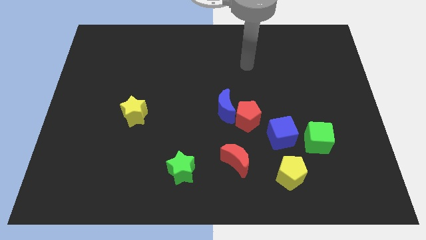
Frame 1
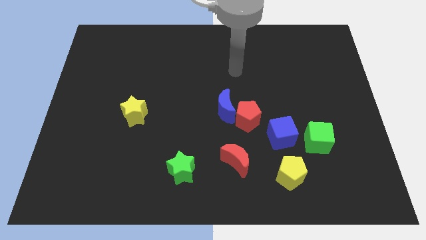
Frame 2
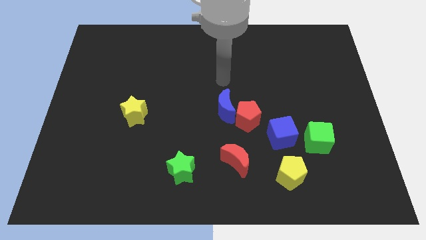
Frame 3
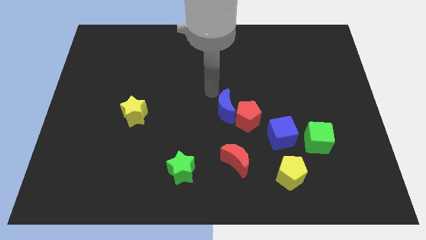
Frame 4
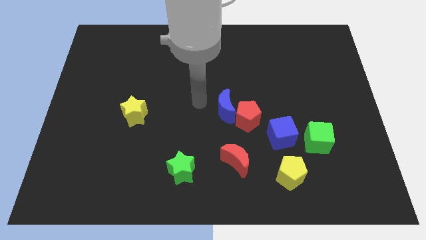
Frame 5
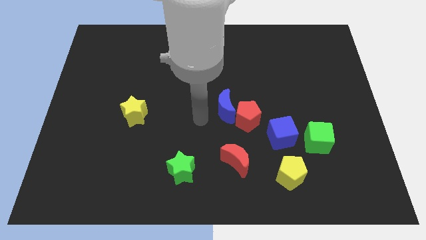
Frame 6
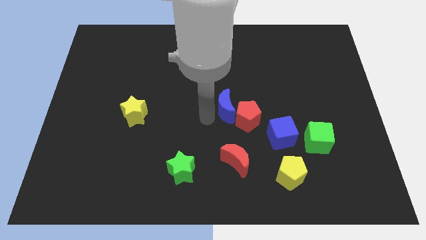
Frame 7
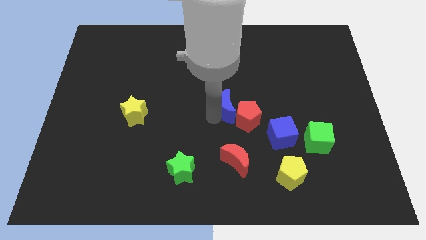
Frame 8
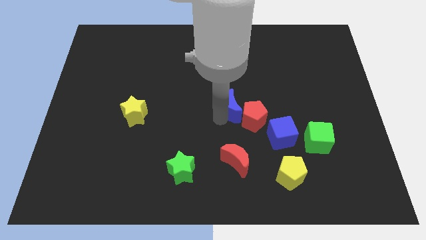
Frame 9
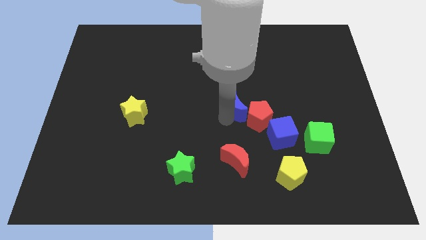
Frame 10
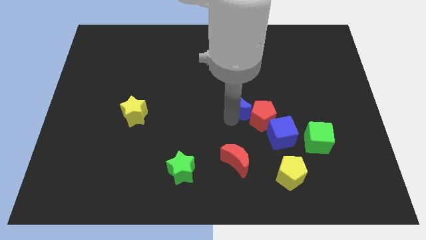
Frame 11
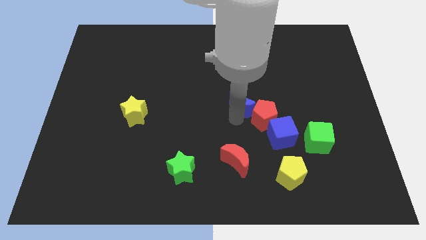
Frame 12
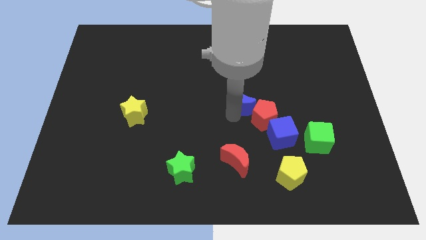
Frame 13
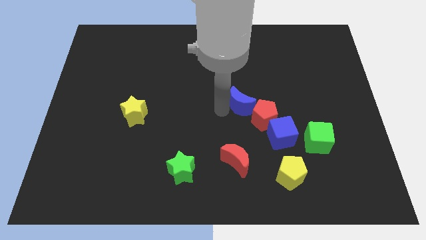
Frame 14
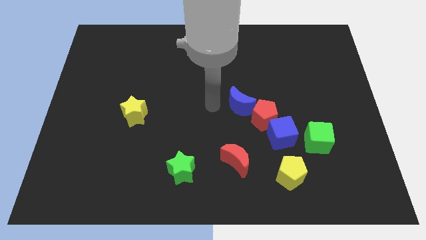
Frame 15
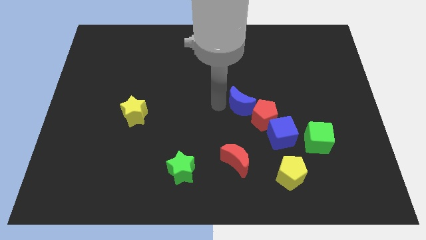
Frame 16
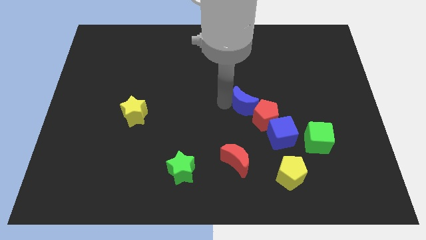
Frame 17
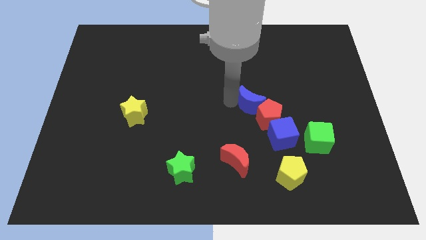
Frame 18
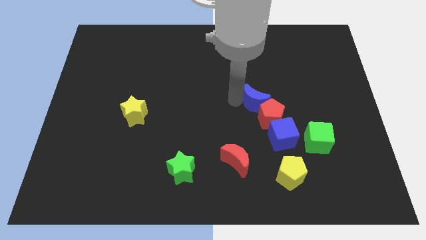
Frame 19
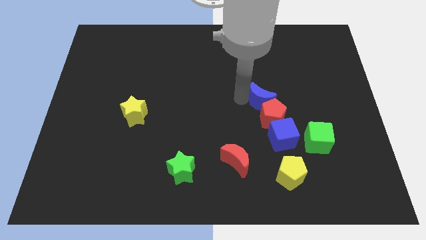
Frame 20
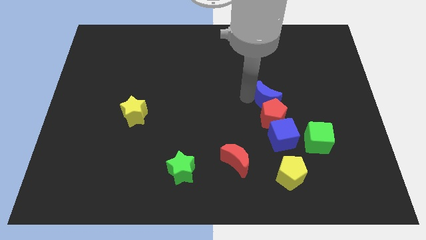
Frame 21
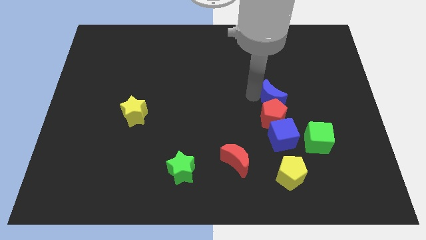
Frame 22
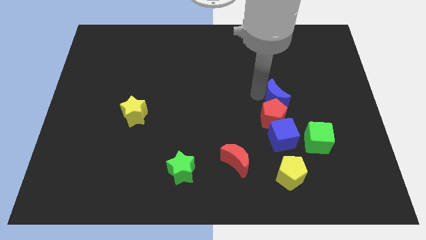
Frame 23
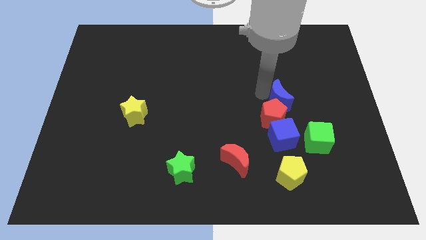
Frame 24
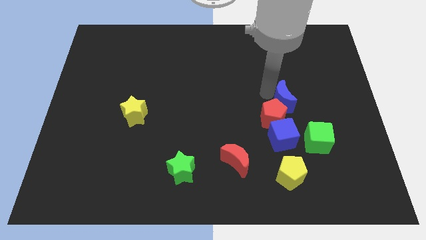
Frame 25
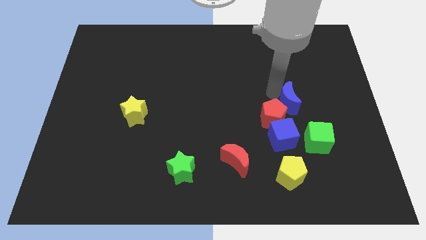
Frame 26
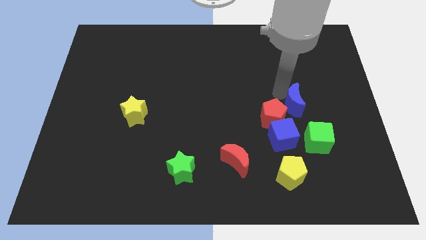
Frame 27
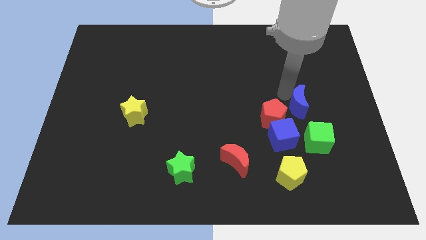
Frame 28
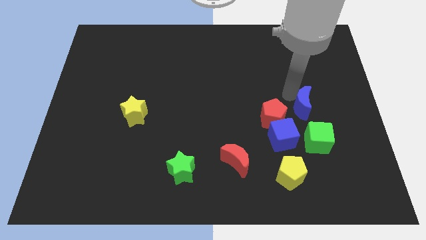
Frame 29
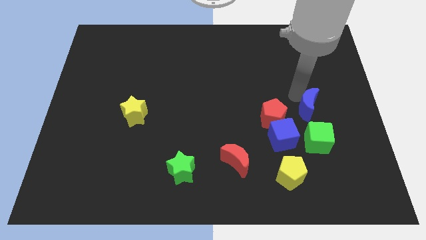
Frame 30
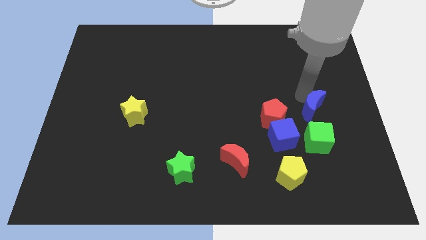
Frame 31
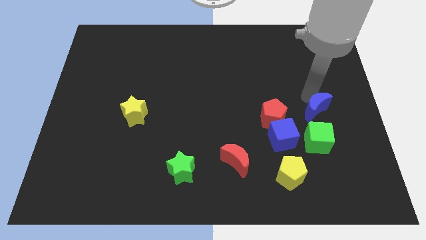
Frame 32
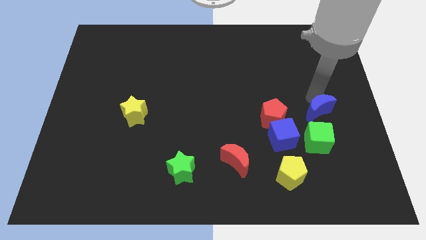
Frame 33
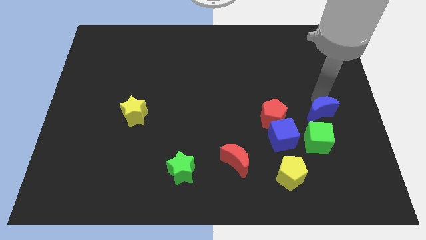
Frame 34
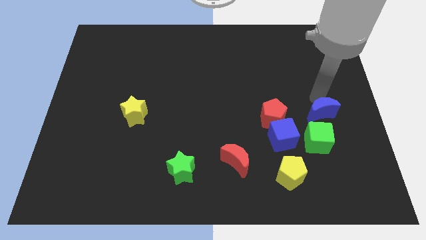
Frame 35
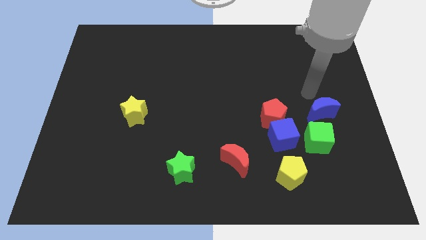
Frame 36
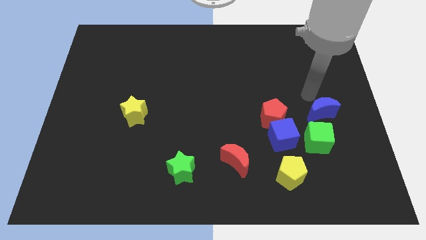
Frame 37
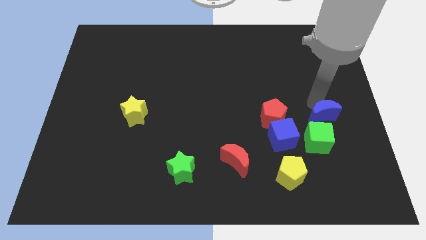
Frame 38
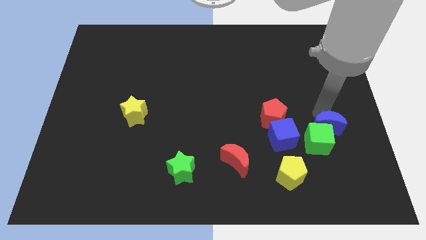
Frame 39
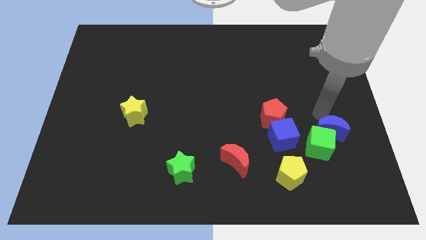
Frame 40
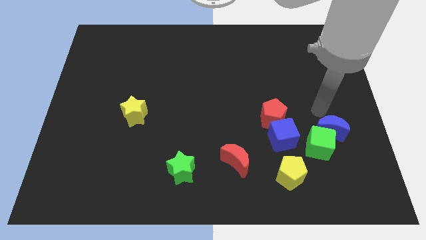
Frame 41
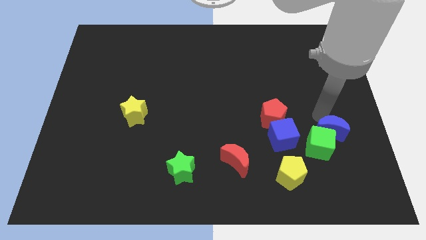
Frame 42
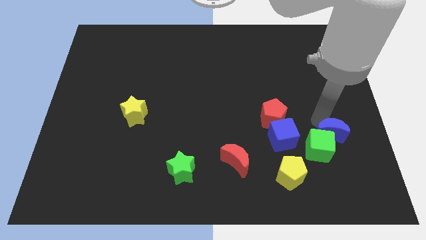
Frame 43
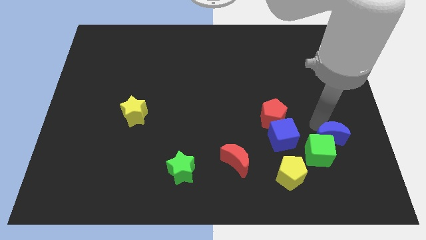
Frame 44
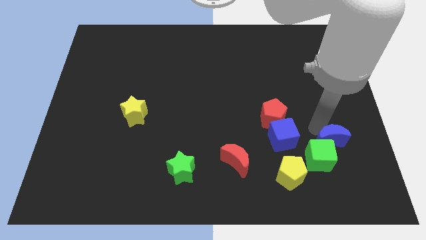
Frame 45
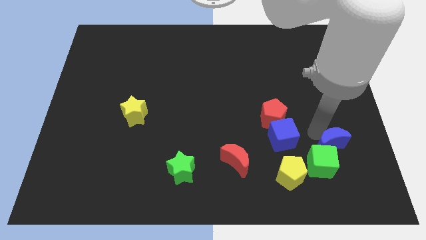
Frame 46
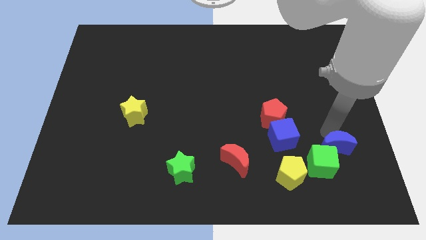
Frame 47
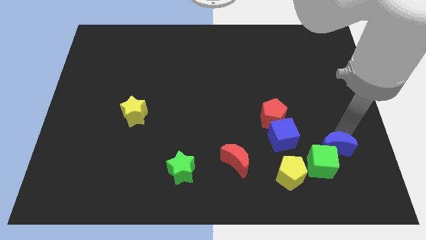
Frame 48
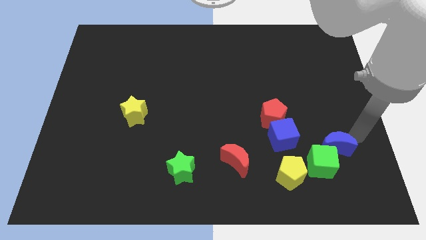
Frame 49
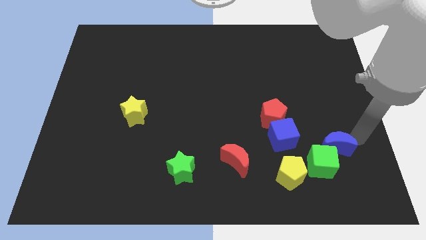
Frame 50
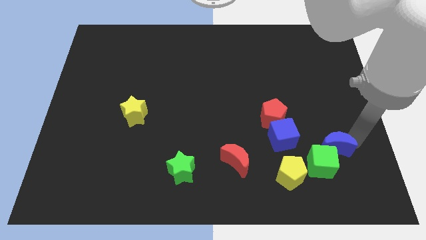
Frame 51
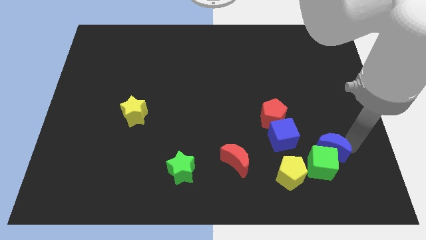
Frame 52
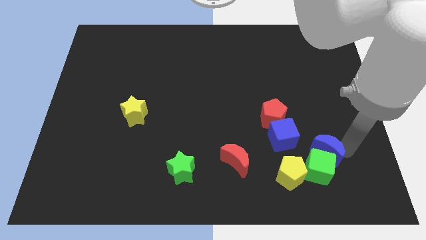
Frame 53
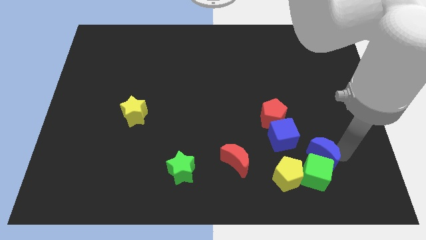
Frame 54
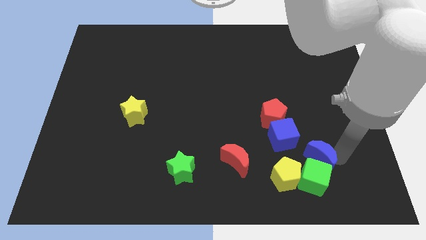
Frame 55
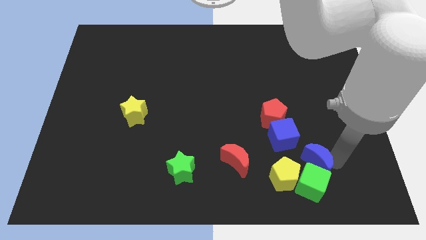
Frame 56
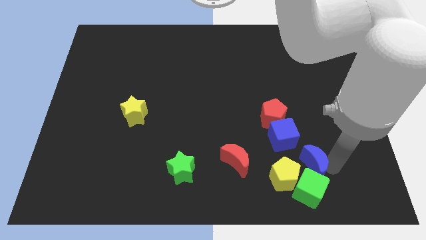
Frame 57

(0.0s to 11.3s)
put the blue moon to the right of the red moon

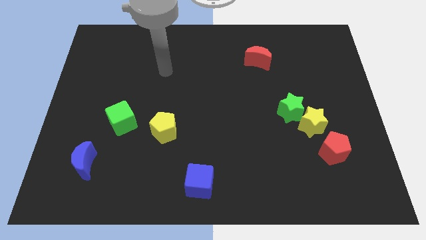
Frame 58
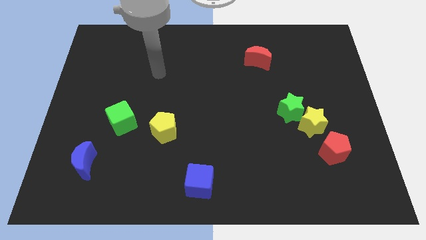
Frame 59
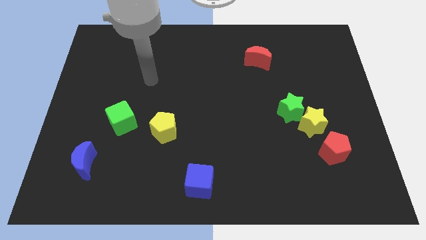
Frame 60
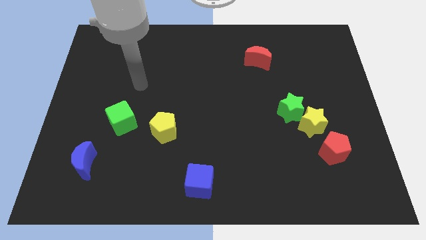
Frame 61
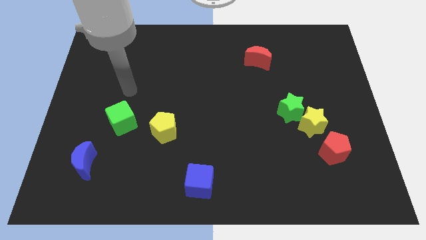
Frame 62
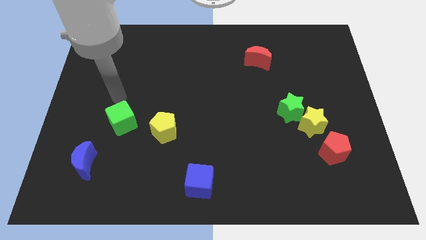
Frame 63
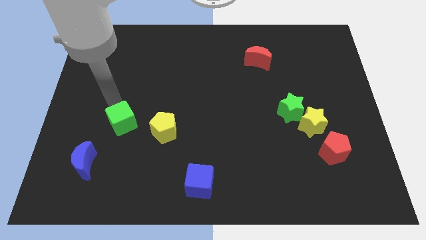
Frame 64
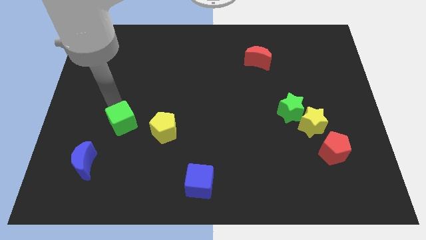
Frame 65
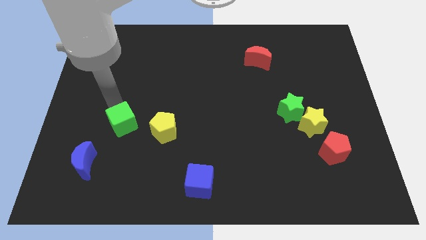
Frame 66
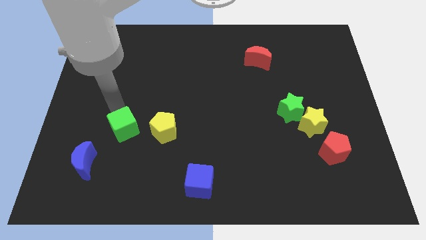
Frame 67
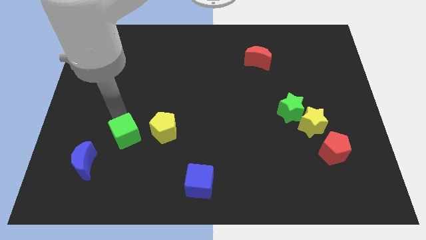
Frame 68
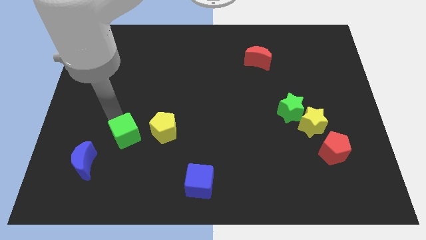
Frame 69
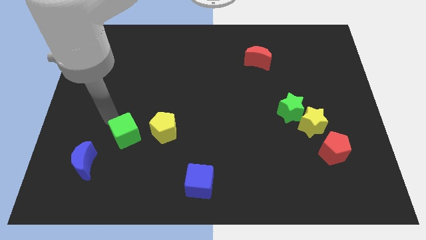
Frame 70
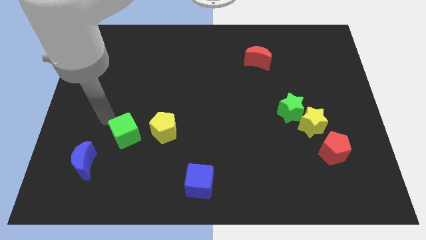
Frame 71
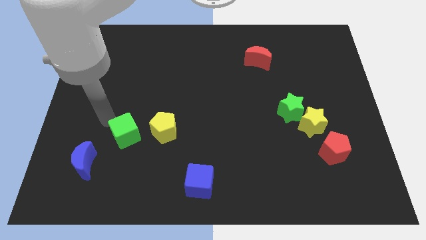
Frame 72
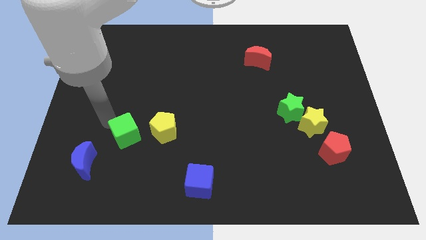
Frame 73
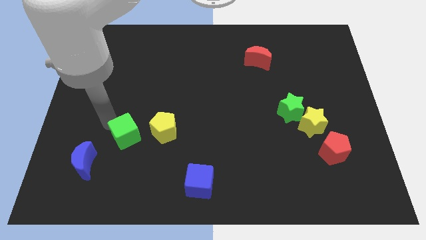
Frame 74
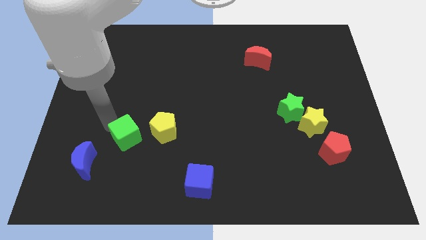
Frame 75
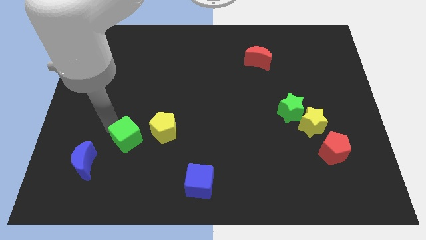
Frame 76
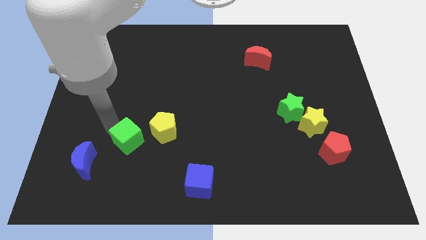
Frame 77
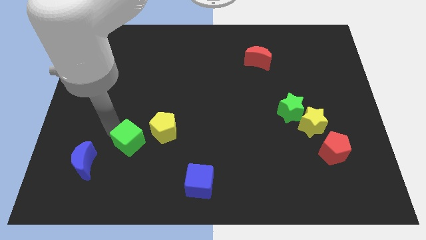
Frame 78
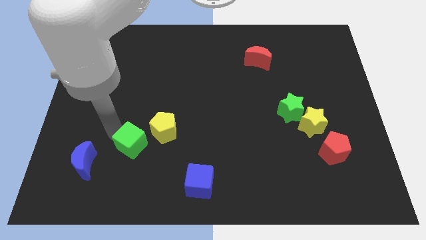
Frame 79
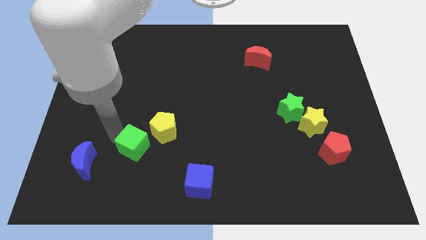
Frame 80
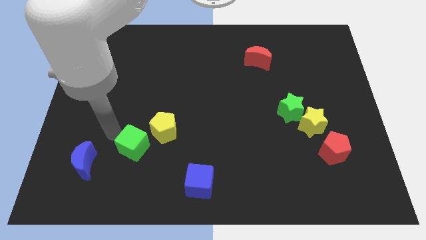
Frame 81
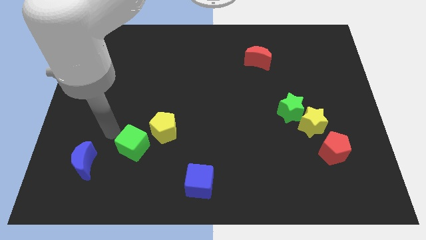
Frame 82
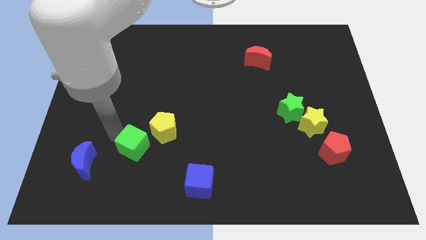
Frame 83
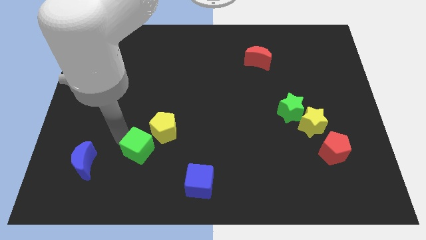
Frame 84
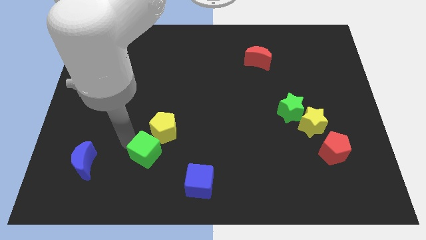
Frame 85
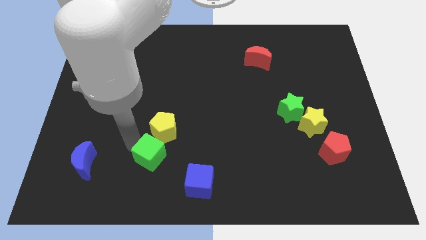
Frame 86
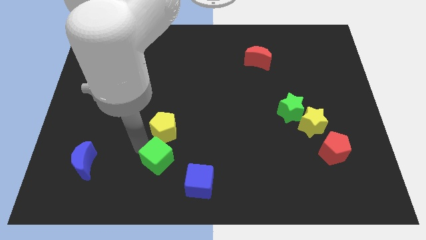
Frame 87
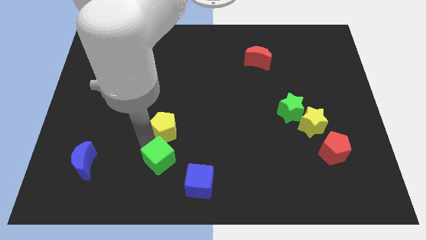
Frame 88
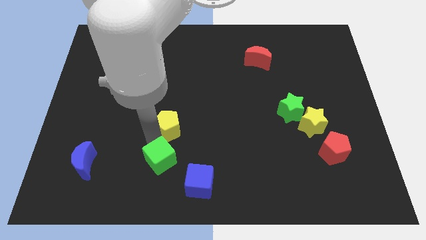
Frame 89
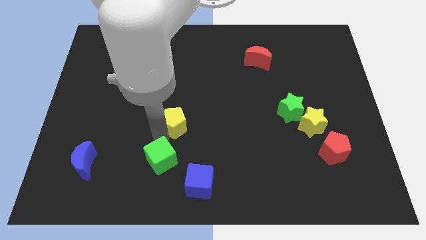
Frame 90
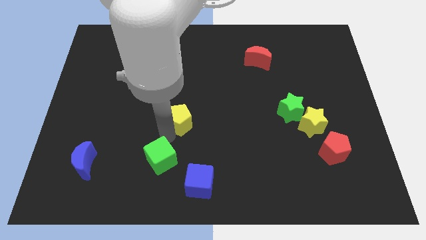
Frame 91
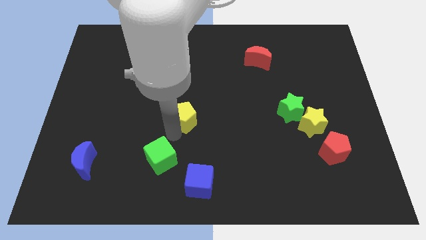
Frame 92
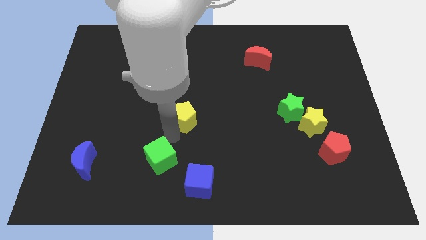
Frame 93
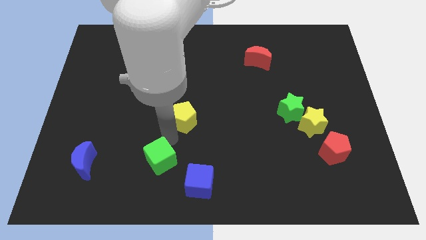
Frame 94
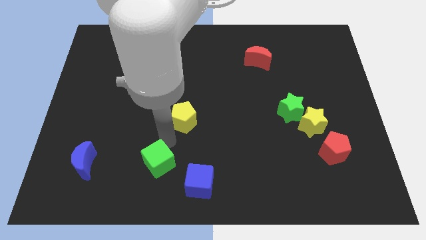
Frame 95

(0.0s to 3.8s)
move the green cube to the left side of the blue cube
